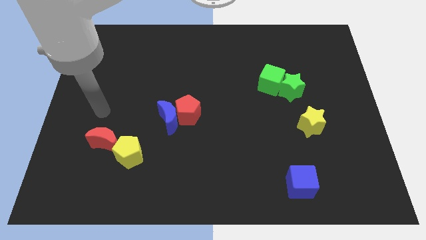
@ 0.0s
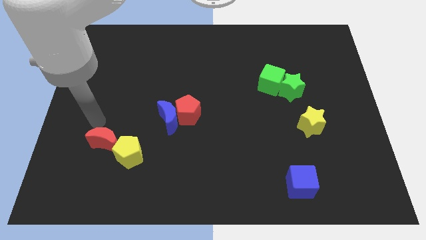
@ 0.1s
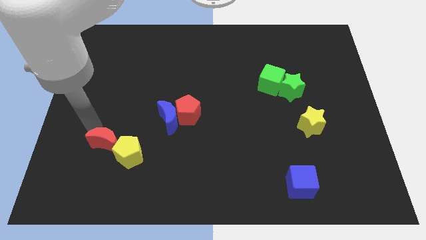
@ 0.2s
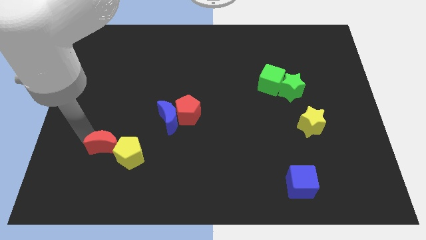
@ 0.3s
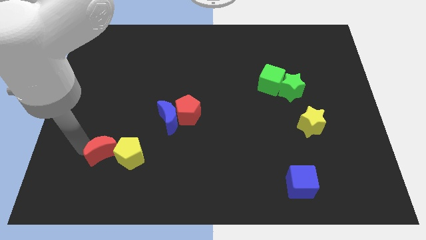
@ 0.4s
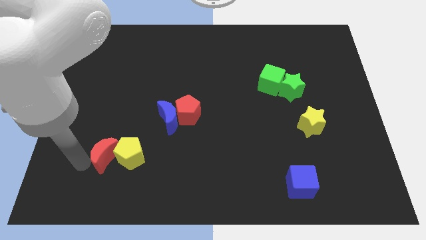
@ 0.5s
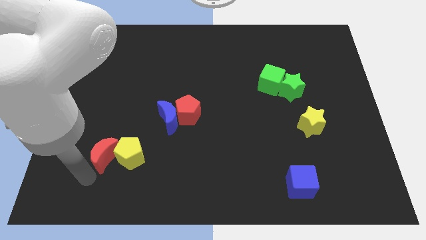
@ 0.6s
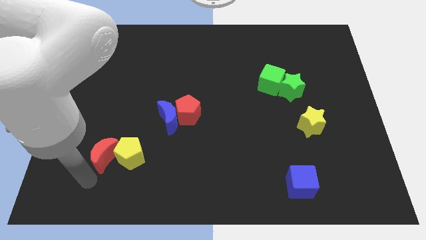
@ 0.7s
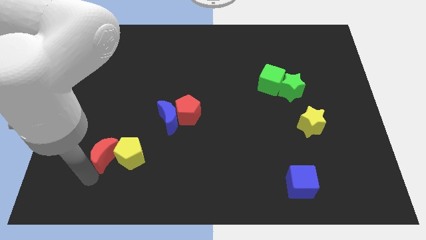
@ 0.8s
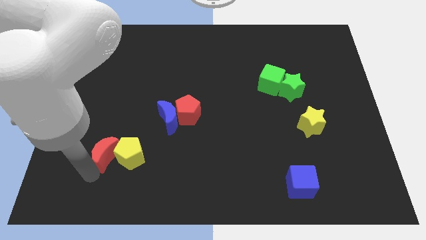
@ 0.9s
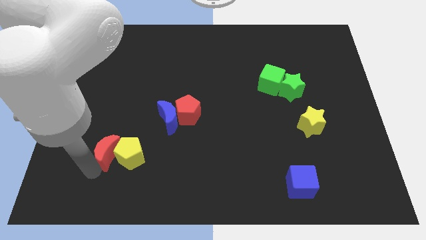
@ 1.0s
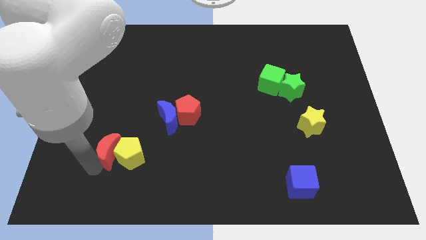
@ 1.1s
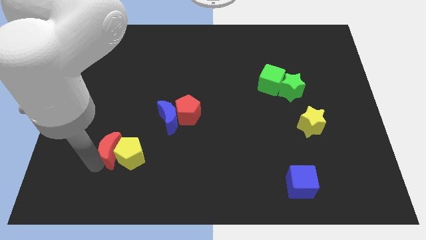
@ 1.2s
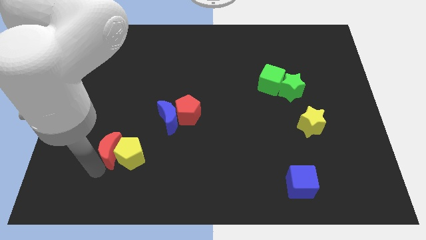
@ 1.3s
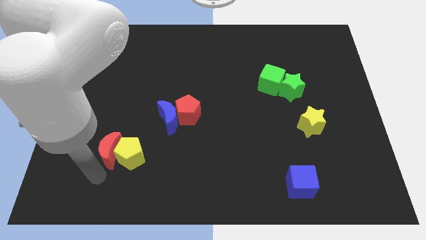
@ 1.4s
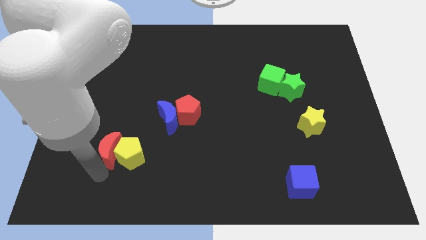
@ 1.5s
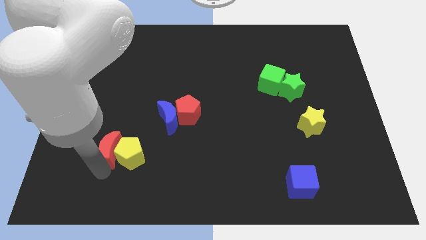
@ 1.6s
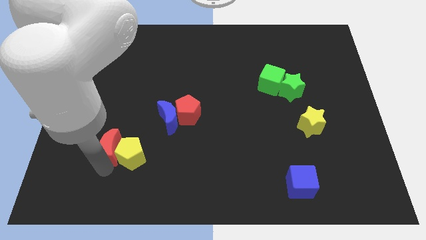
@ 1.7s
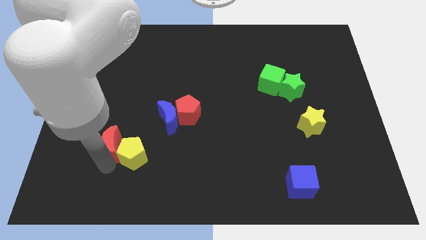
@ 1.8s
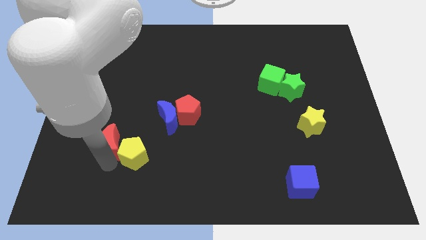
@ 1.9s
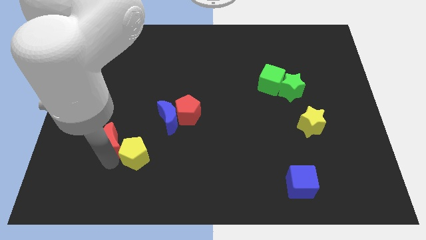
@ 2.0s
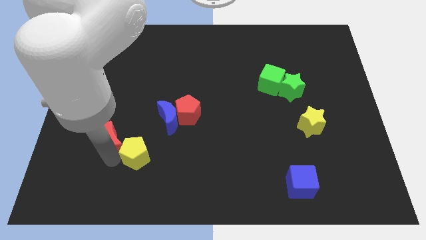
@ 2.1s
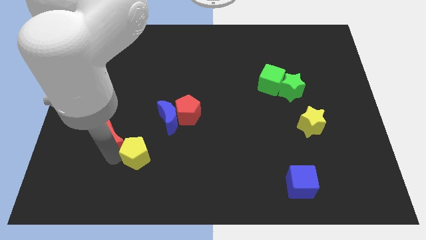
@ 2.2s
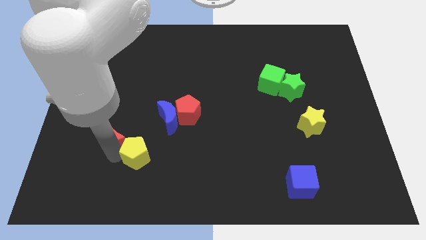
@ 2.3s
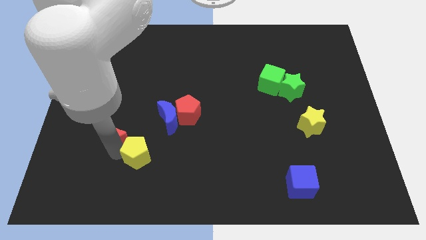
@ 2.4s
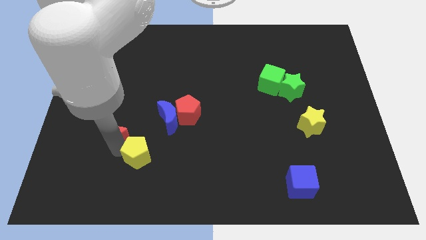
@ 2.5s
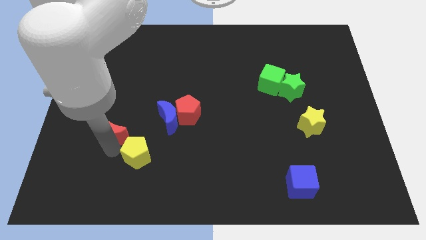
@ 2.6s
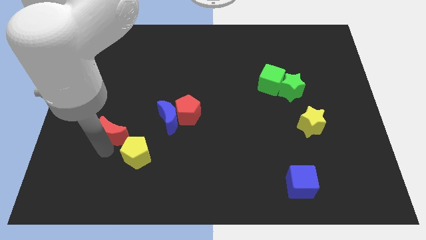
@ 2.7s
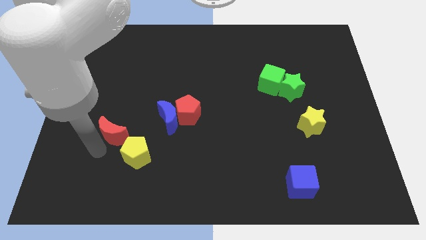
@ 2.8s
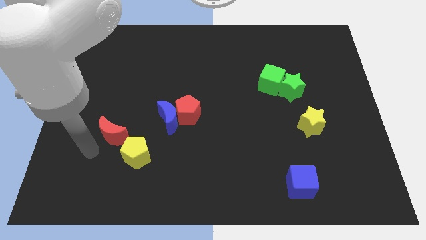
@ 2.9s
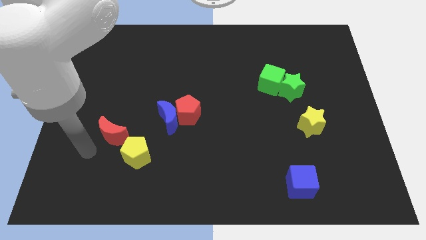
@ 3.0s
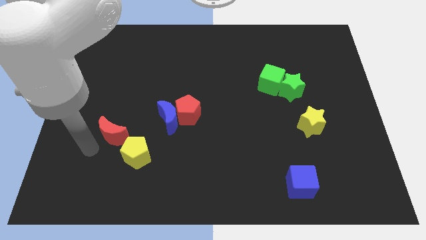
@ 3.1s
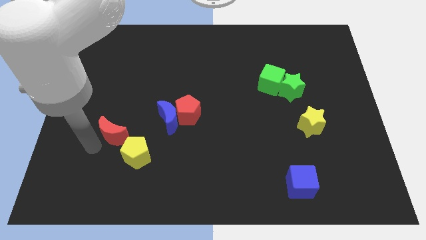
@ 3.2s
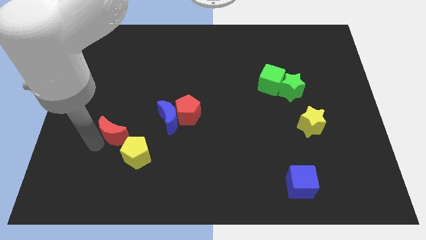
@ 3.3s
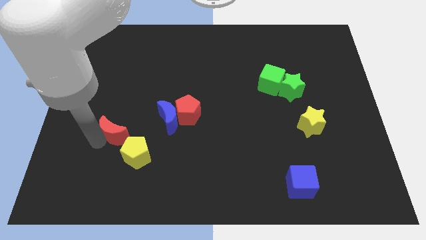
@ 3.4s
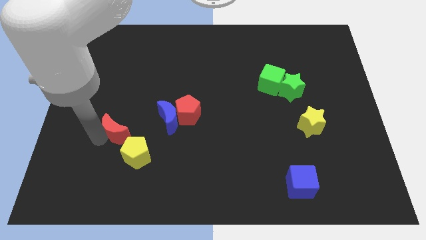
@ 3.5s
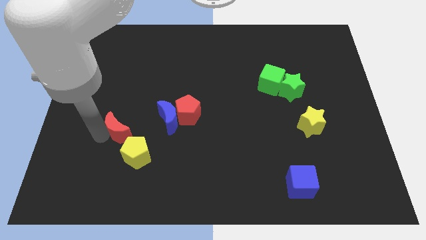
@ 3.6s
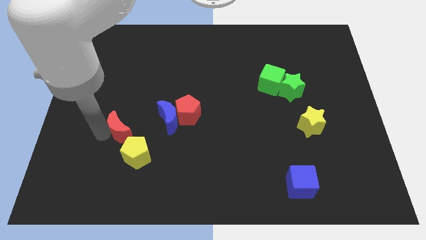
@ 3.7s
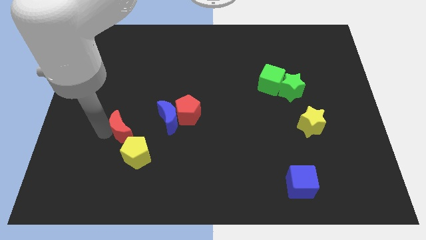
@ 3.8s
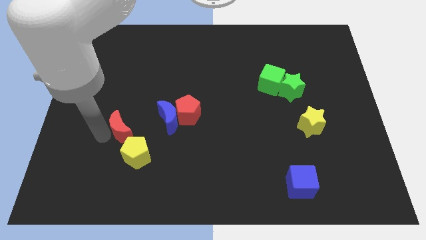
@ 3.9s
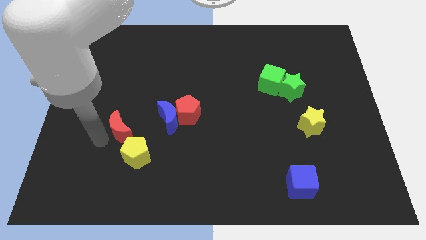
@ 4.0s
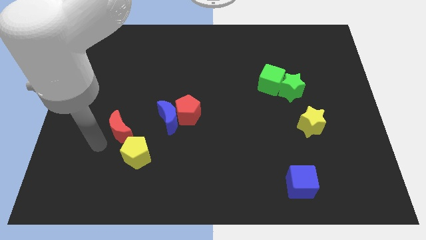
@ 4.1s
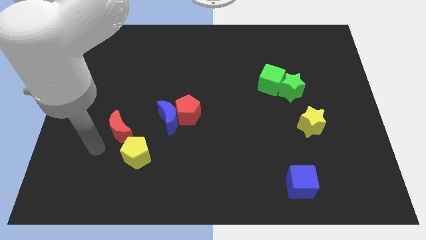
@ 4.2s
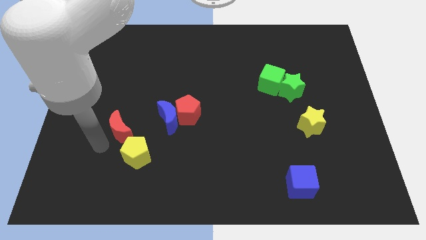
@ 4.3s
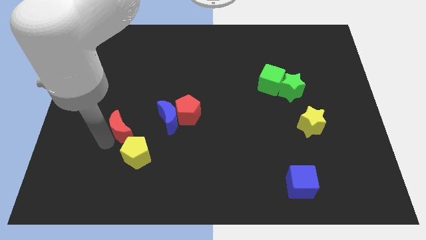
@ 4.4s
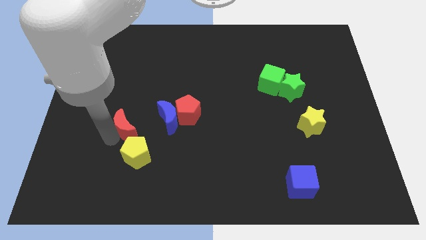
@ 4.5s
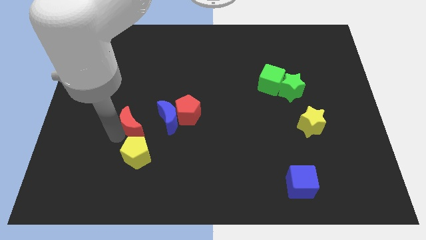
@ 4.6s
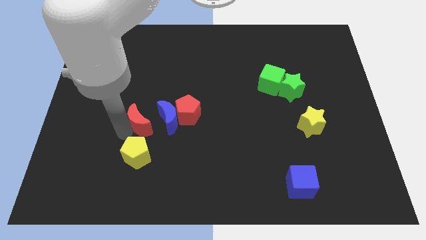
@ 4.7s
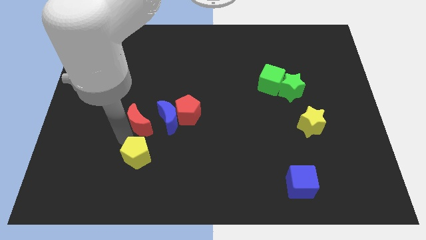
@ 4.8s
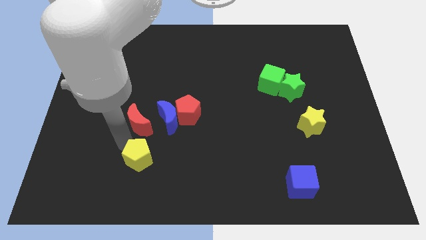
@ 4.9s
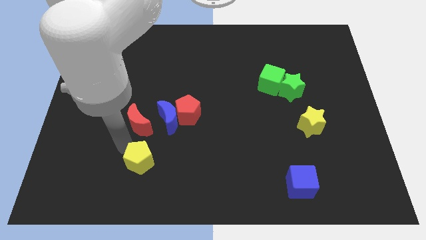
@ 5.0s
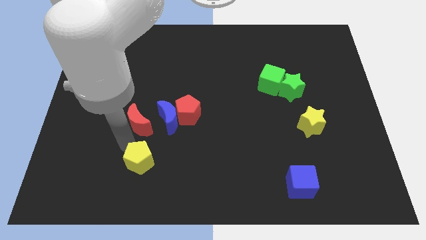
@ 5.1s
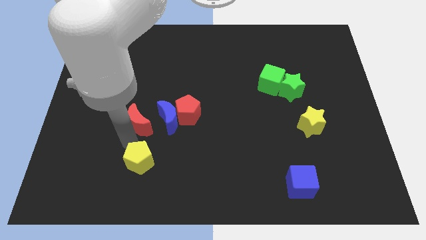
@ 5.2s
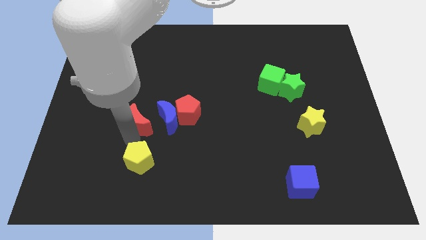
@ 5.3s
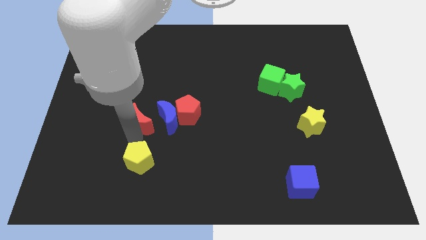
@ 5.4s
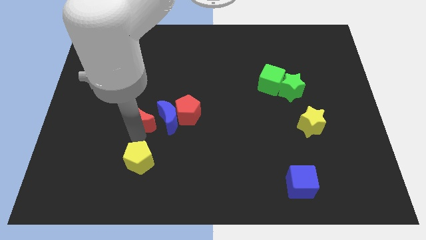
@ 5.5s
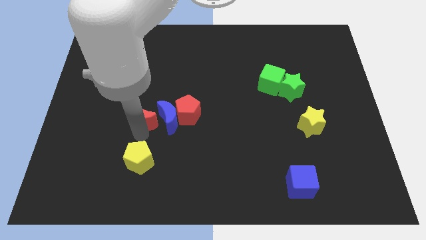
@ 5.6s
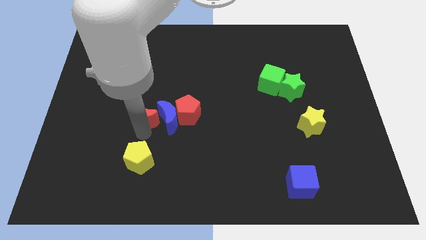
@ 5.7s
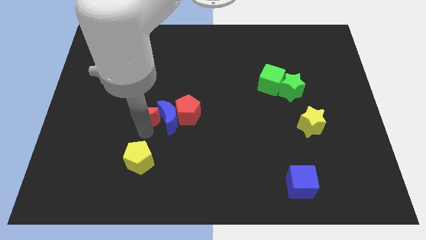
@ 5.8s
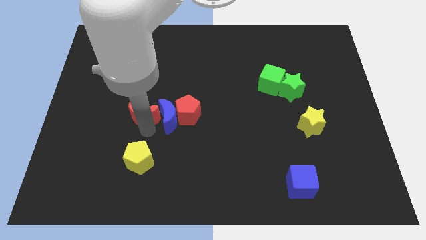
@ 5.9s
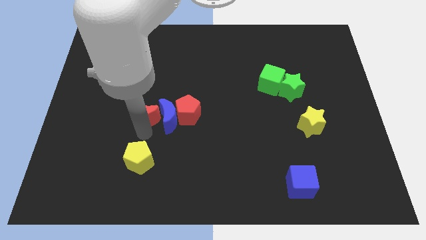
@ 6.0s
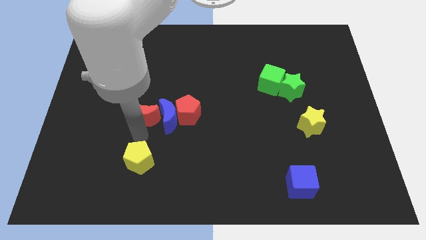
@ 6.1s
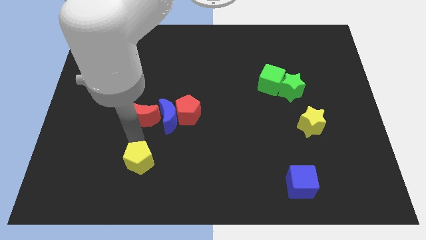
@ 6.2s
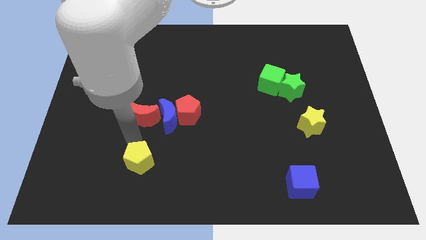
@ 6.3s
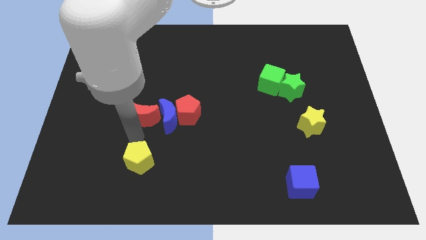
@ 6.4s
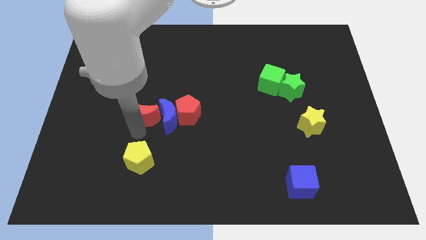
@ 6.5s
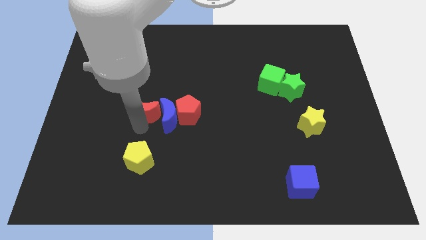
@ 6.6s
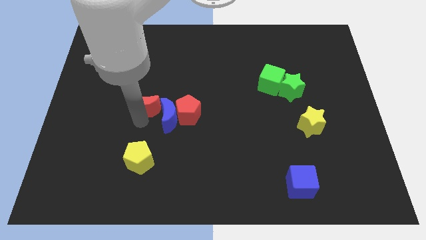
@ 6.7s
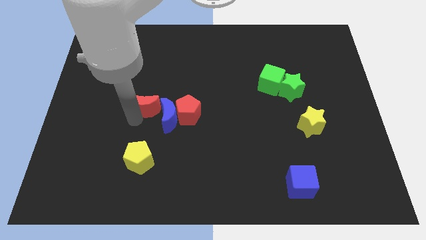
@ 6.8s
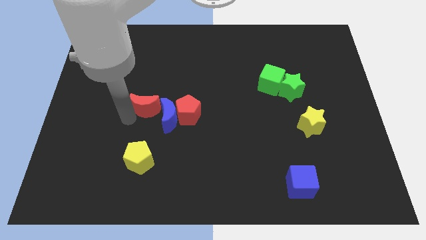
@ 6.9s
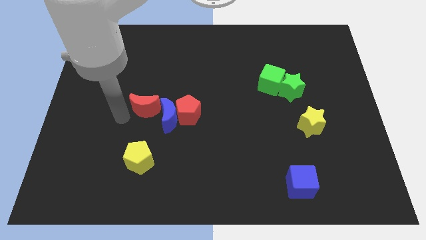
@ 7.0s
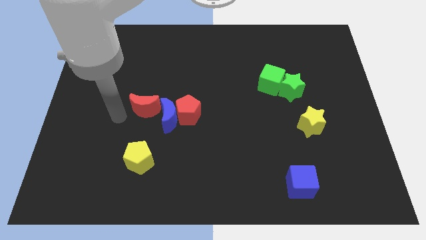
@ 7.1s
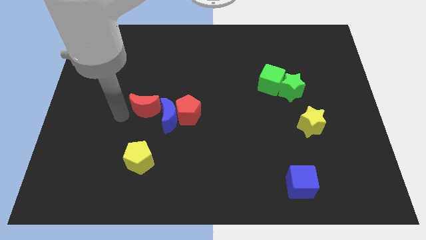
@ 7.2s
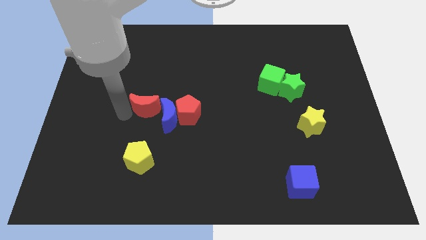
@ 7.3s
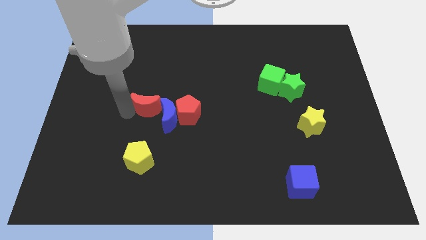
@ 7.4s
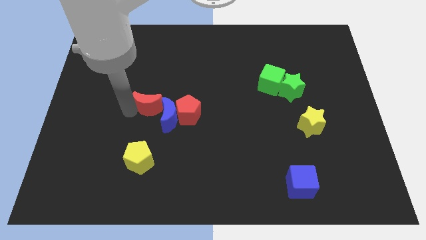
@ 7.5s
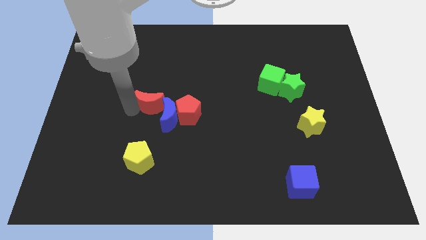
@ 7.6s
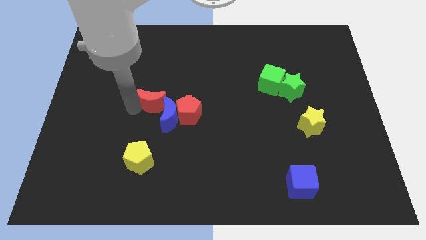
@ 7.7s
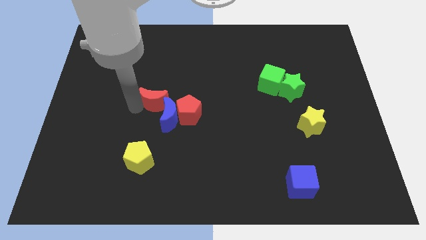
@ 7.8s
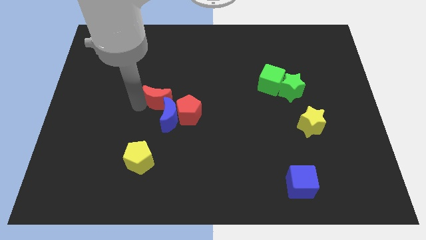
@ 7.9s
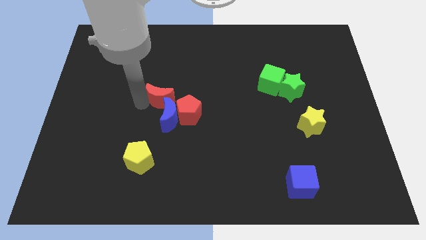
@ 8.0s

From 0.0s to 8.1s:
slide the red moon to the middle

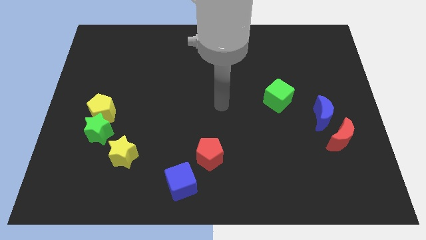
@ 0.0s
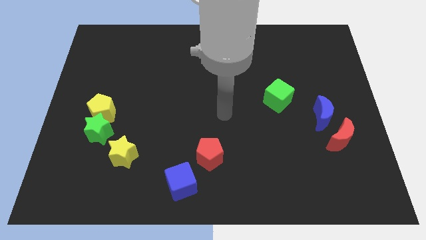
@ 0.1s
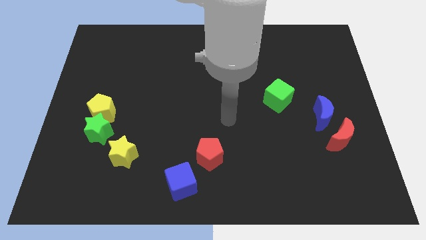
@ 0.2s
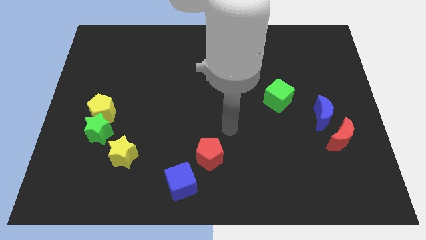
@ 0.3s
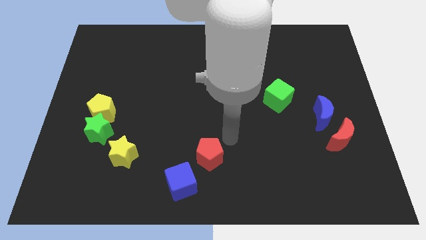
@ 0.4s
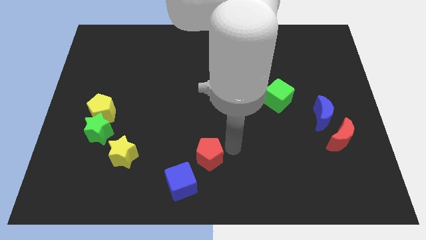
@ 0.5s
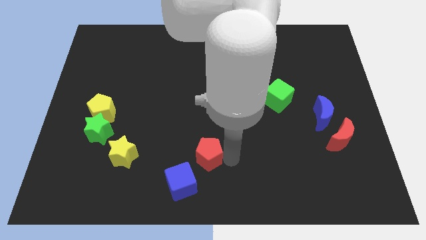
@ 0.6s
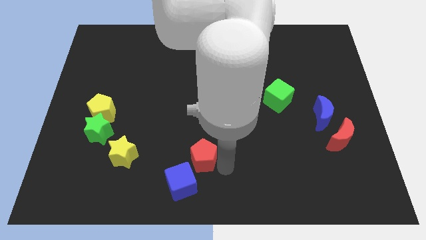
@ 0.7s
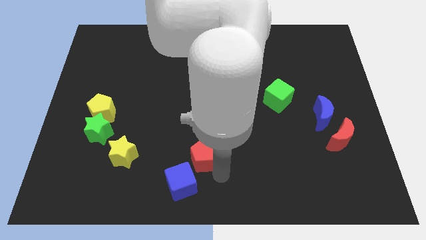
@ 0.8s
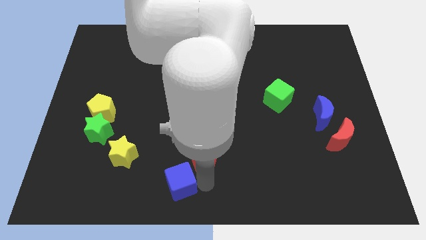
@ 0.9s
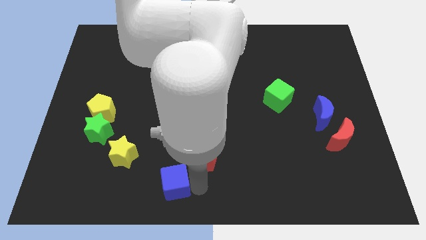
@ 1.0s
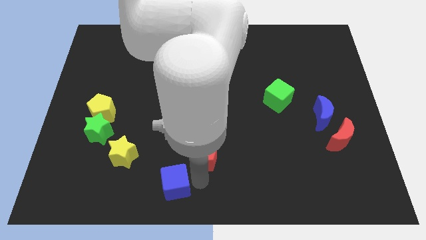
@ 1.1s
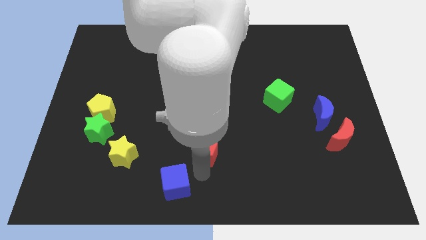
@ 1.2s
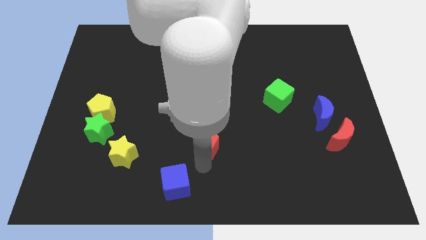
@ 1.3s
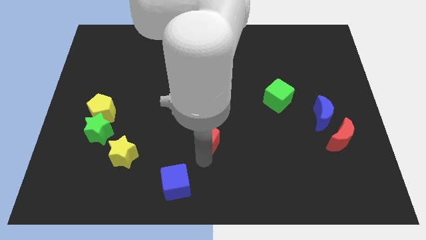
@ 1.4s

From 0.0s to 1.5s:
put the red pentagon to the middle of the board
